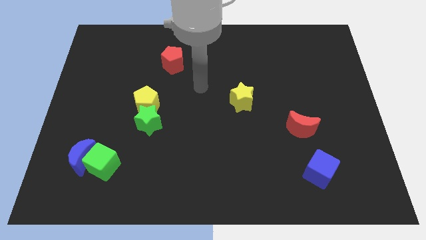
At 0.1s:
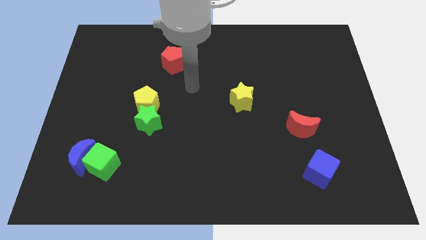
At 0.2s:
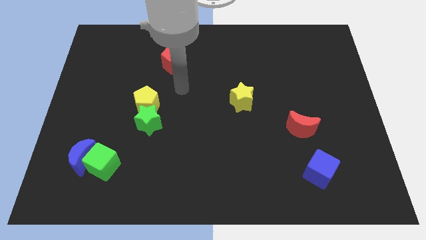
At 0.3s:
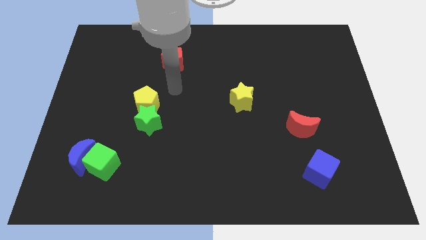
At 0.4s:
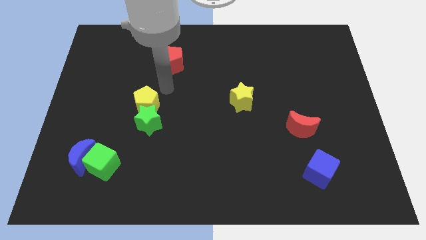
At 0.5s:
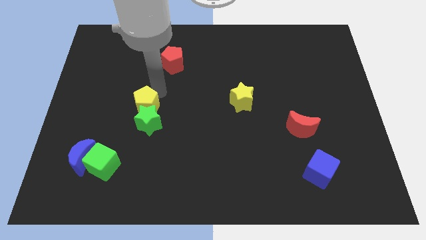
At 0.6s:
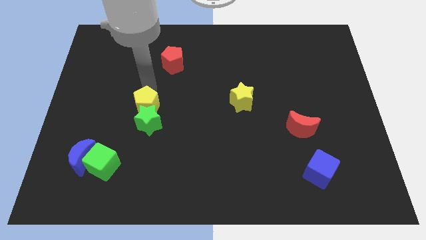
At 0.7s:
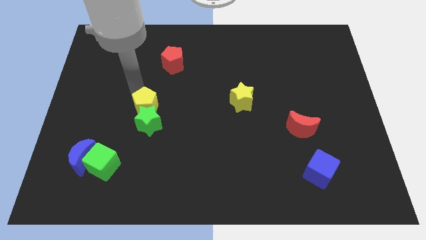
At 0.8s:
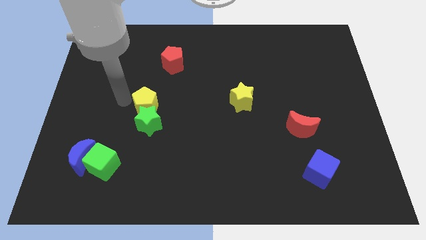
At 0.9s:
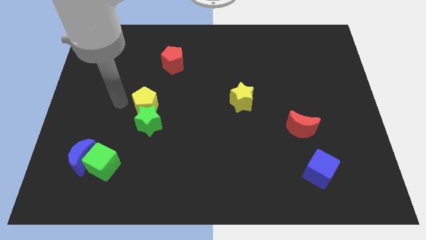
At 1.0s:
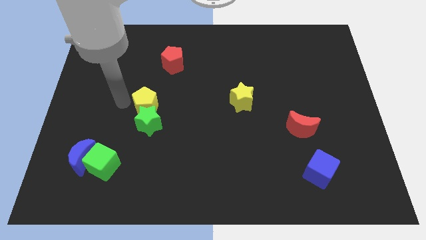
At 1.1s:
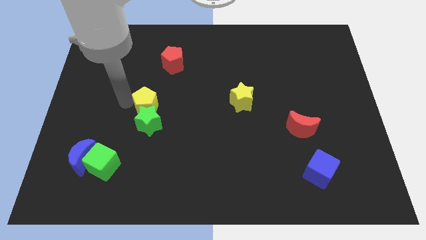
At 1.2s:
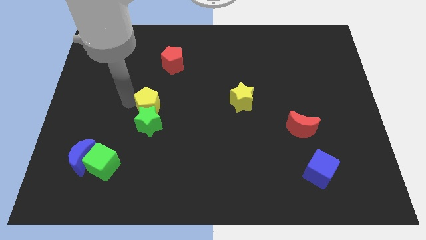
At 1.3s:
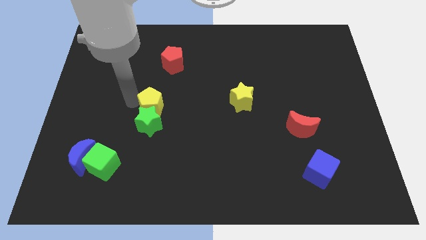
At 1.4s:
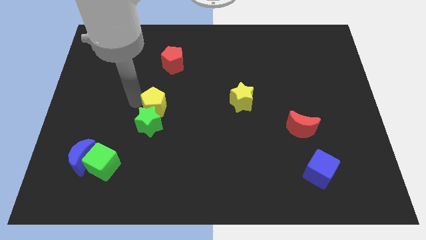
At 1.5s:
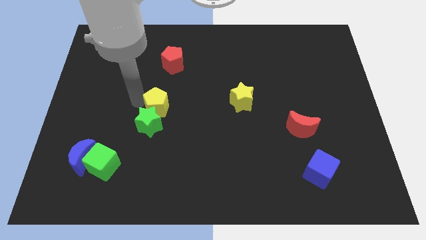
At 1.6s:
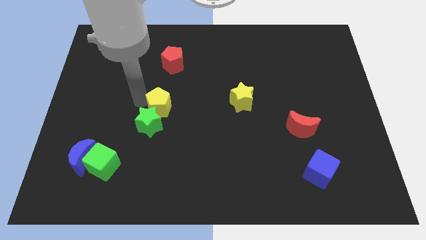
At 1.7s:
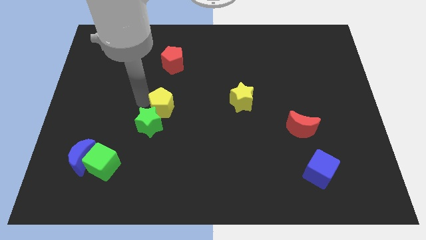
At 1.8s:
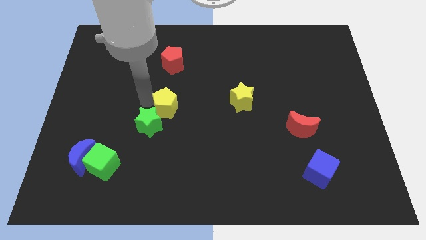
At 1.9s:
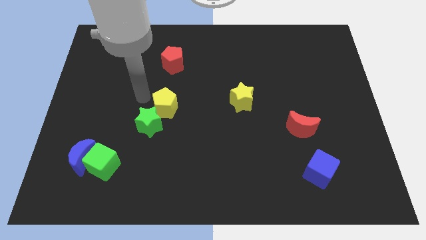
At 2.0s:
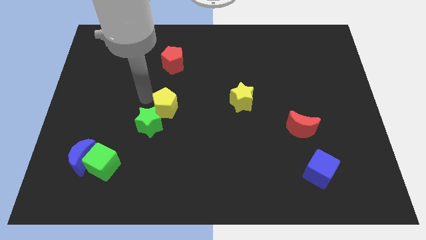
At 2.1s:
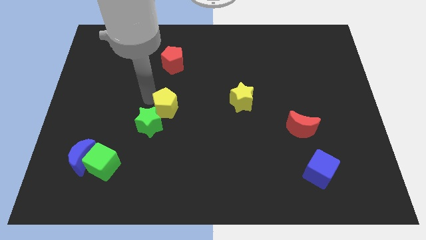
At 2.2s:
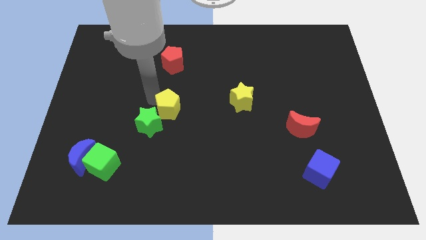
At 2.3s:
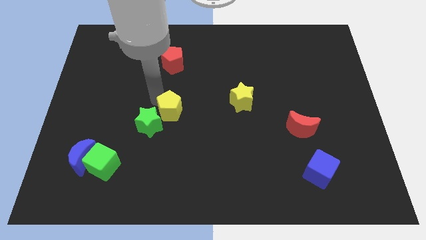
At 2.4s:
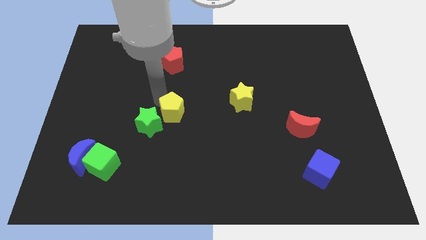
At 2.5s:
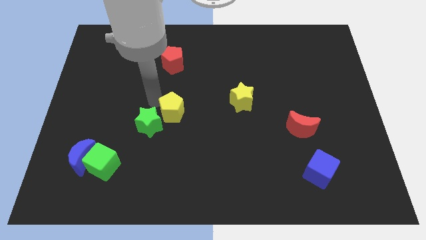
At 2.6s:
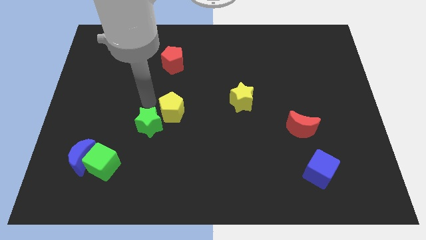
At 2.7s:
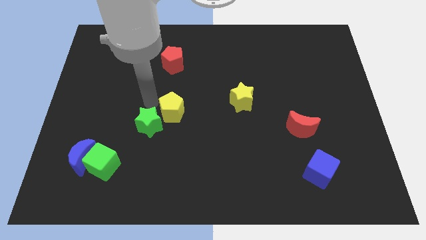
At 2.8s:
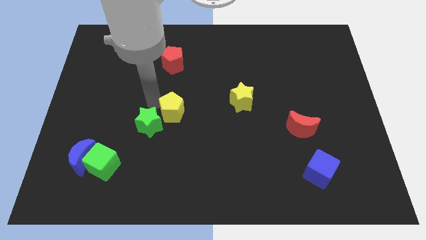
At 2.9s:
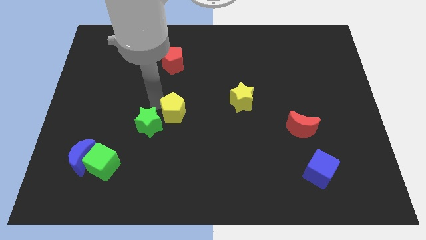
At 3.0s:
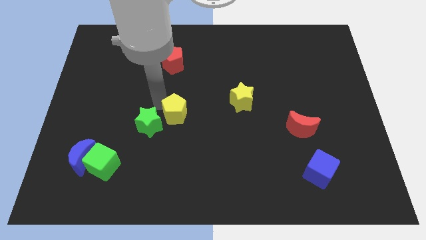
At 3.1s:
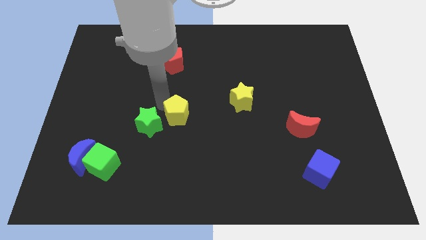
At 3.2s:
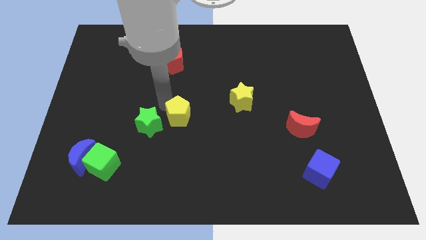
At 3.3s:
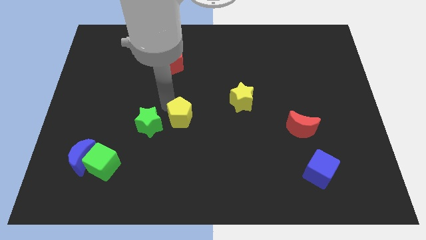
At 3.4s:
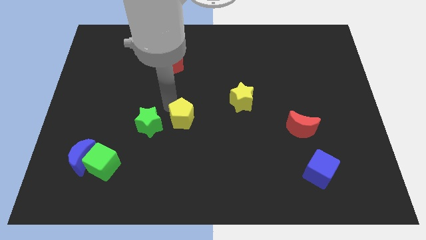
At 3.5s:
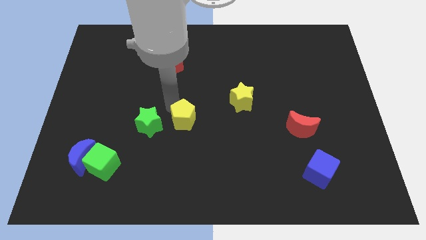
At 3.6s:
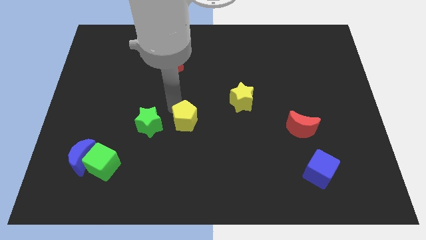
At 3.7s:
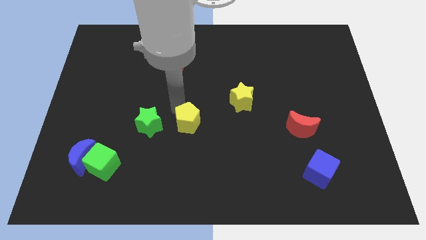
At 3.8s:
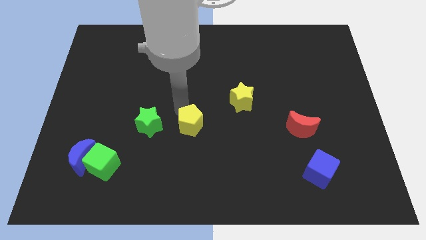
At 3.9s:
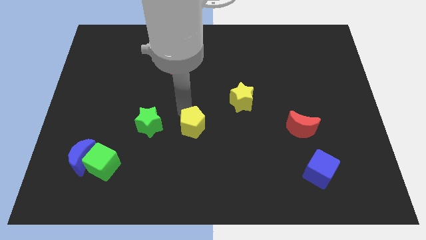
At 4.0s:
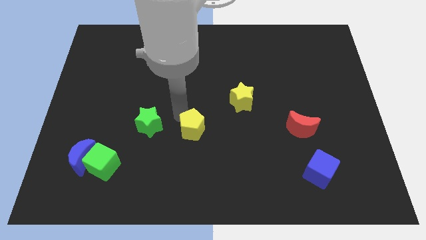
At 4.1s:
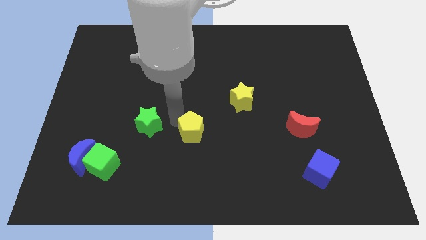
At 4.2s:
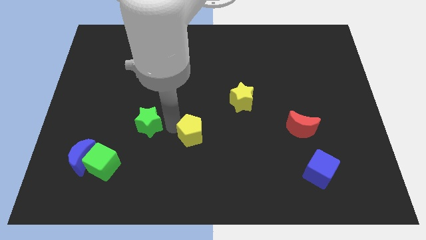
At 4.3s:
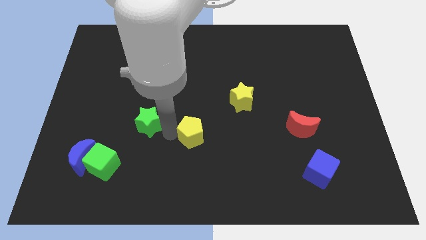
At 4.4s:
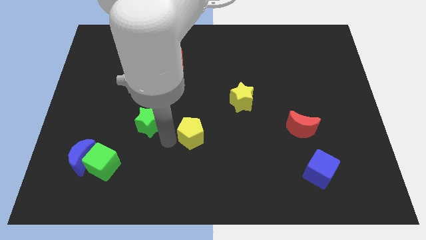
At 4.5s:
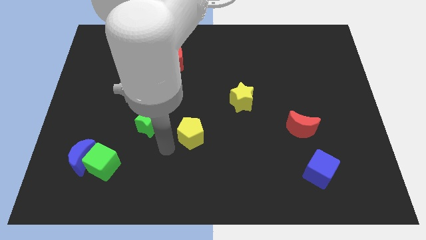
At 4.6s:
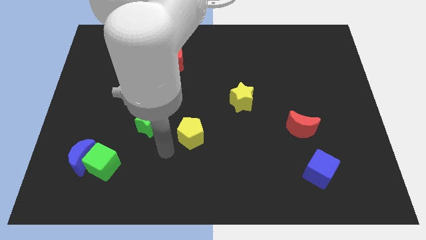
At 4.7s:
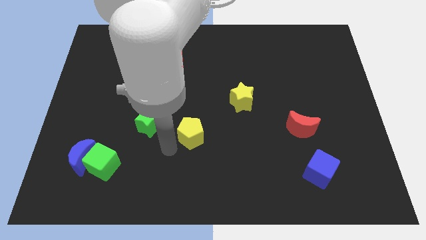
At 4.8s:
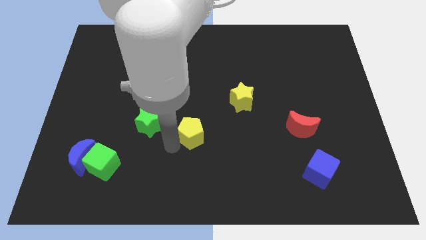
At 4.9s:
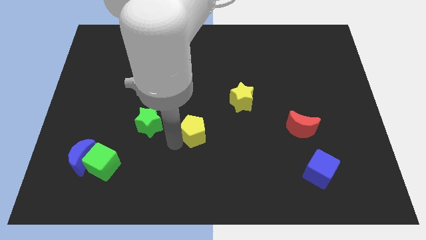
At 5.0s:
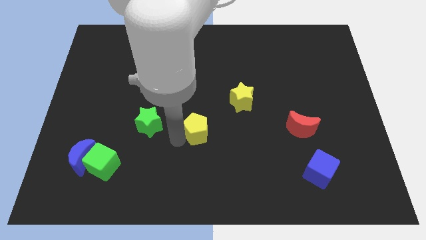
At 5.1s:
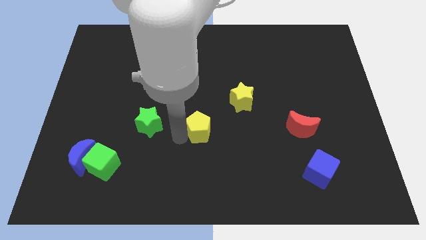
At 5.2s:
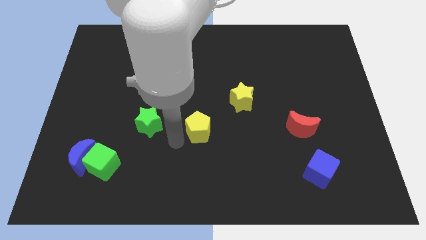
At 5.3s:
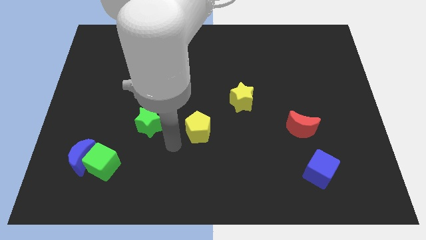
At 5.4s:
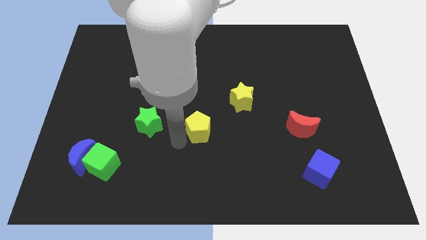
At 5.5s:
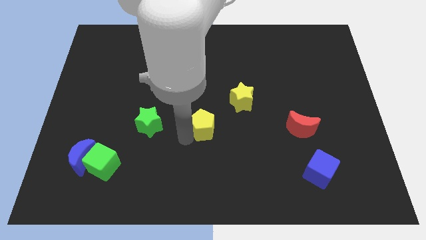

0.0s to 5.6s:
move the yellow pentagon to the bottom left of the yellow star
